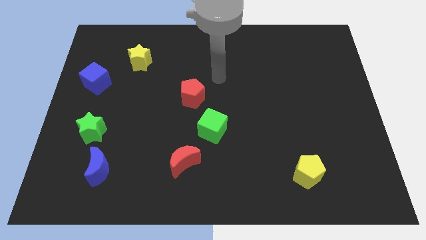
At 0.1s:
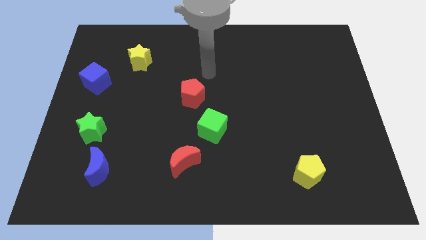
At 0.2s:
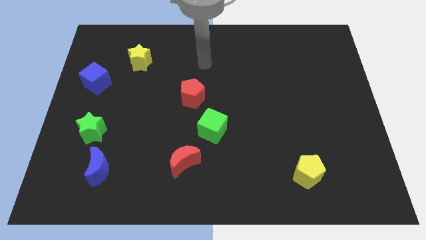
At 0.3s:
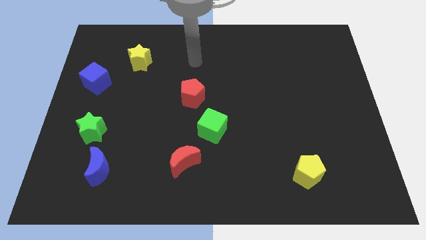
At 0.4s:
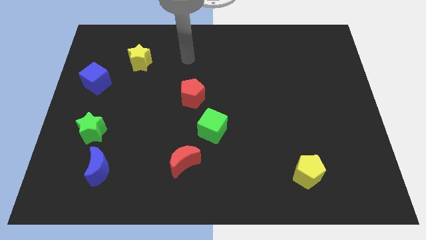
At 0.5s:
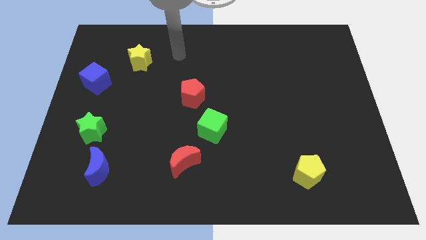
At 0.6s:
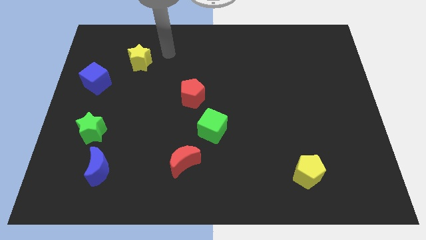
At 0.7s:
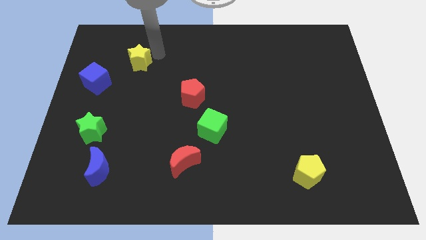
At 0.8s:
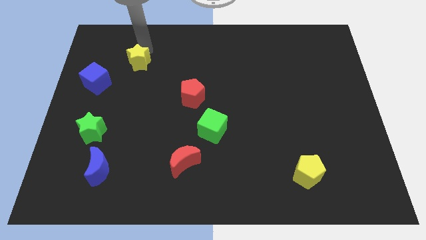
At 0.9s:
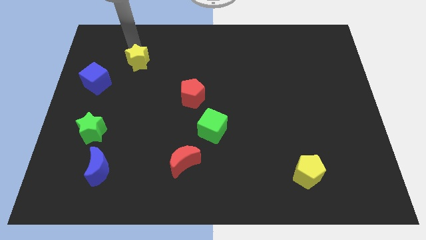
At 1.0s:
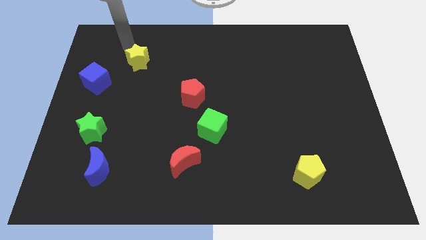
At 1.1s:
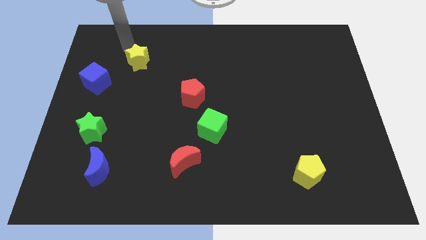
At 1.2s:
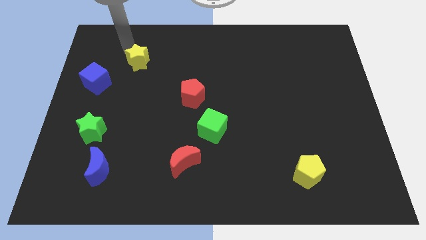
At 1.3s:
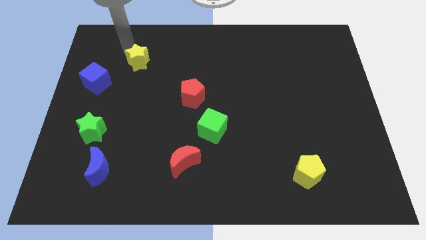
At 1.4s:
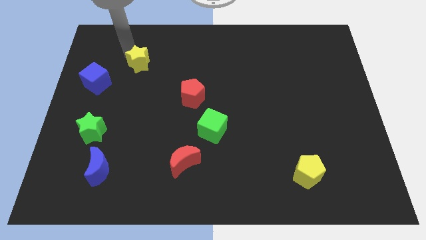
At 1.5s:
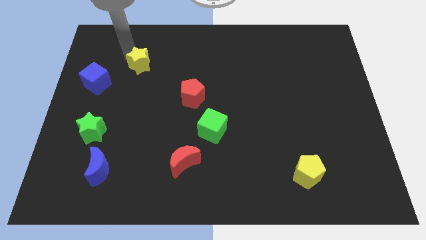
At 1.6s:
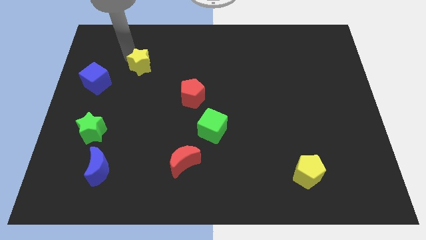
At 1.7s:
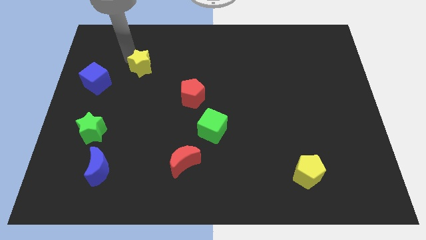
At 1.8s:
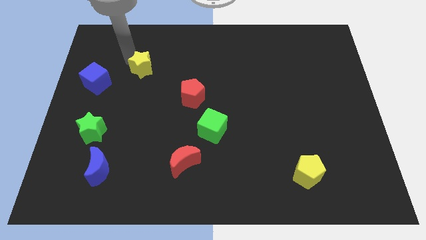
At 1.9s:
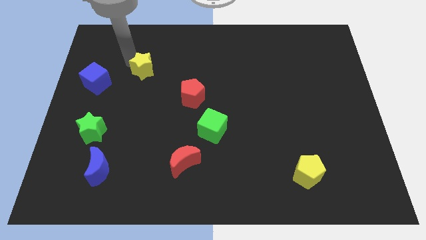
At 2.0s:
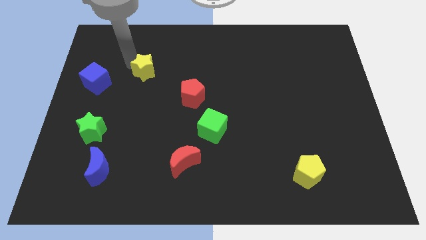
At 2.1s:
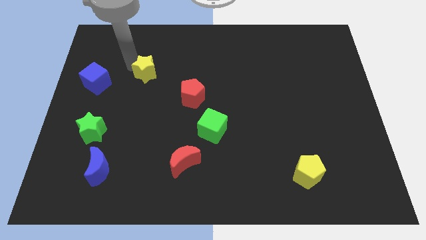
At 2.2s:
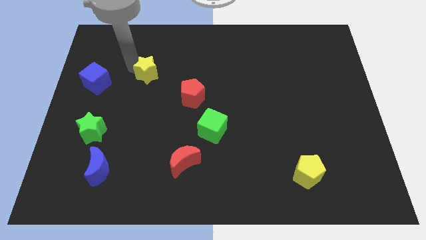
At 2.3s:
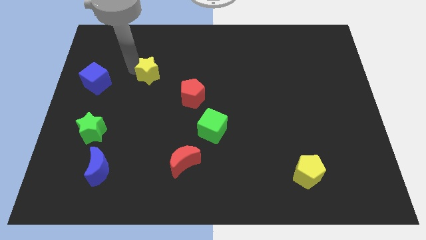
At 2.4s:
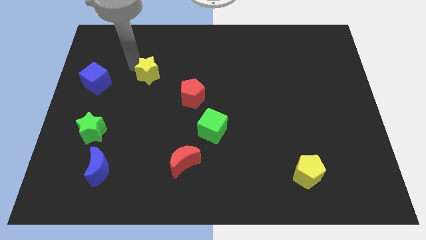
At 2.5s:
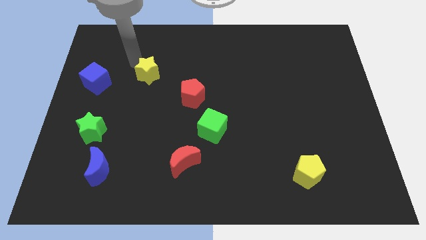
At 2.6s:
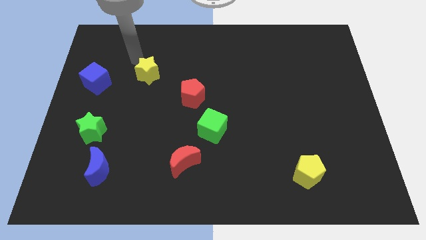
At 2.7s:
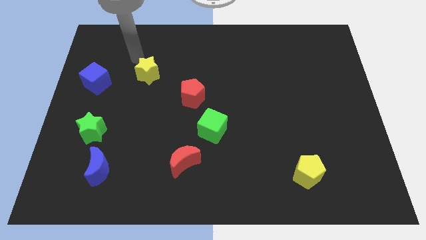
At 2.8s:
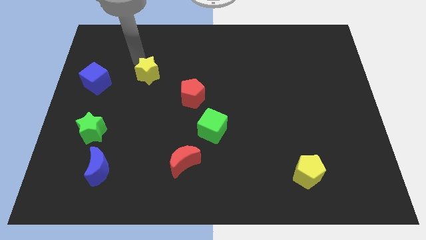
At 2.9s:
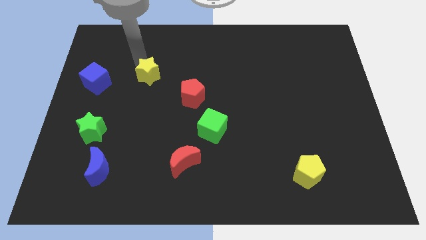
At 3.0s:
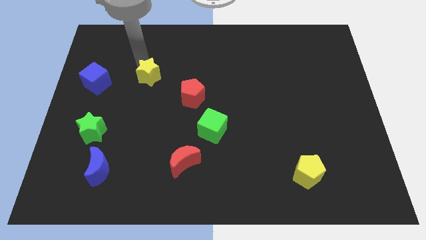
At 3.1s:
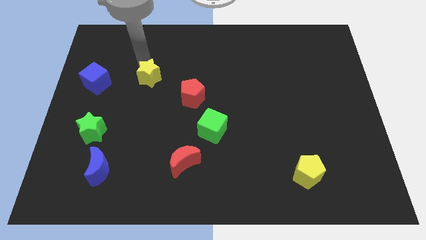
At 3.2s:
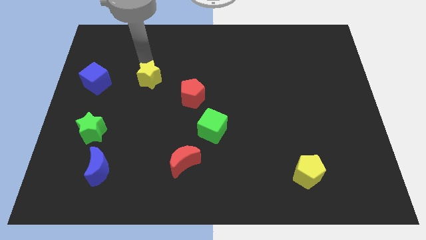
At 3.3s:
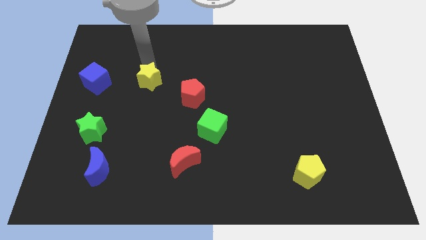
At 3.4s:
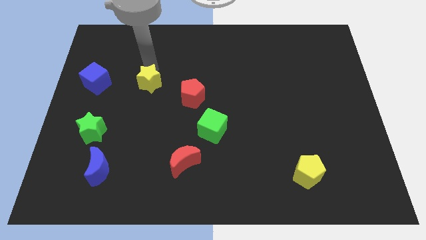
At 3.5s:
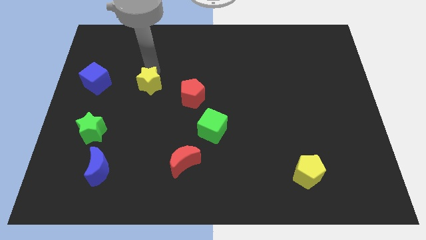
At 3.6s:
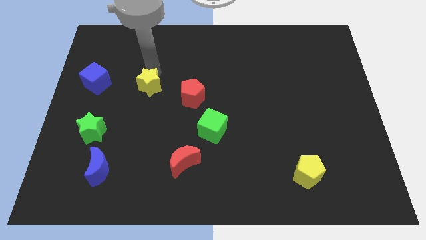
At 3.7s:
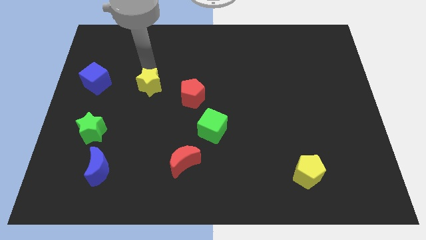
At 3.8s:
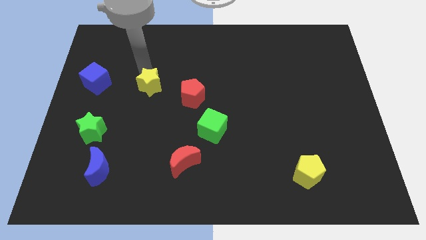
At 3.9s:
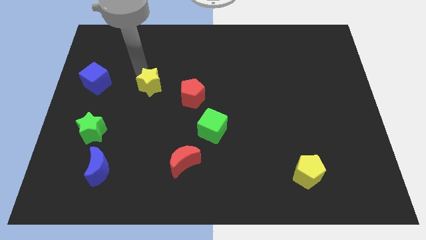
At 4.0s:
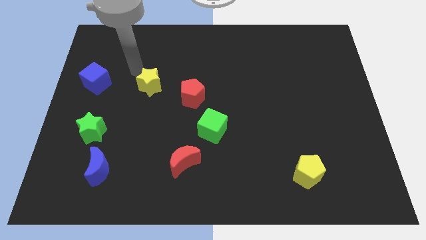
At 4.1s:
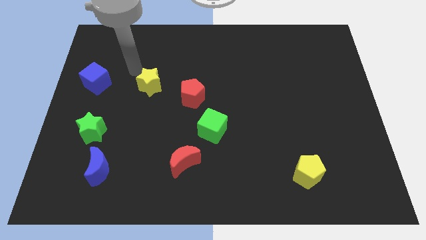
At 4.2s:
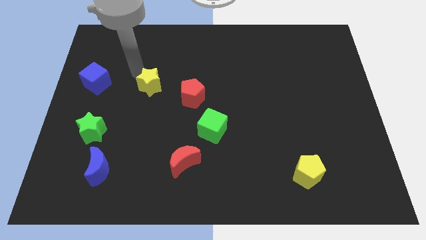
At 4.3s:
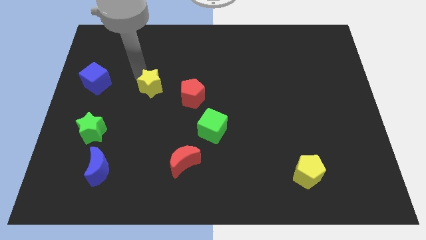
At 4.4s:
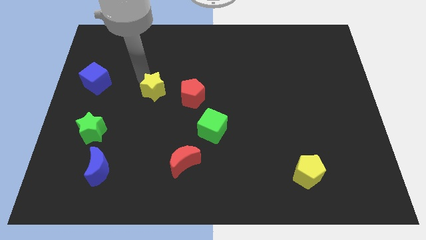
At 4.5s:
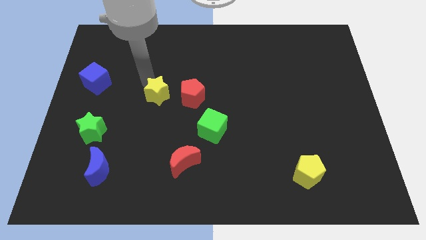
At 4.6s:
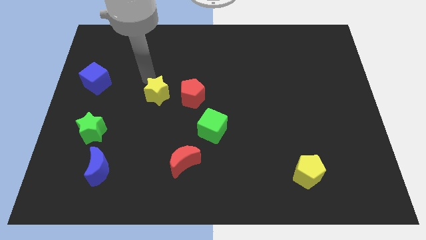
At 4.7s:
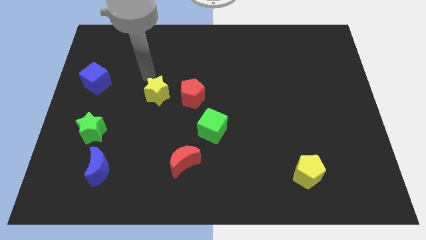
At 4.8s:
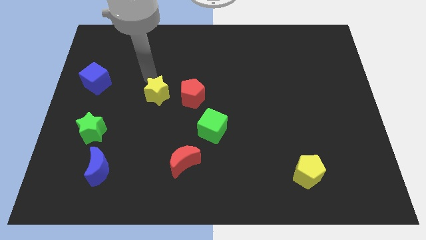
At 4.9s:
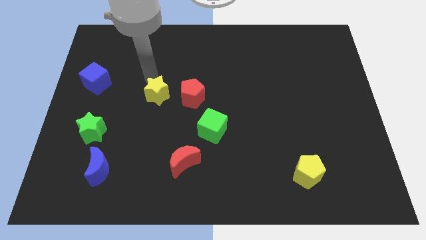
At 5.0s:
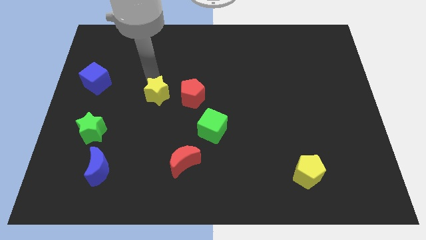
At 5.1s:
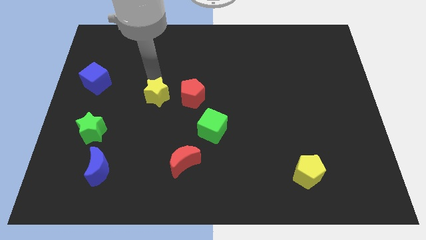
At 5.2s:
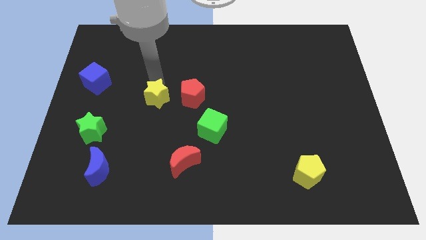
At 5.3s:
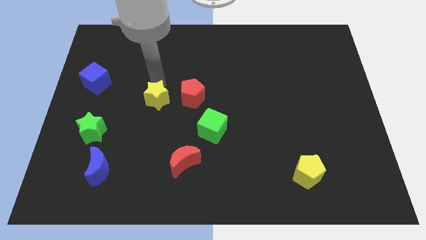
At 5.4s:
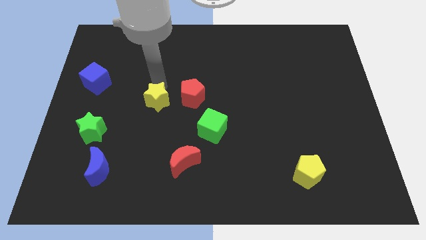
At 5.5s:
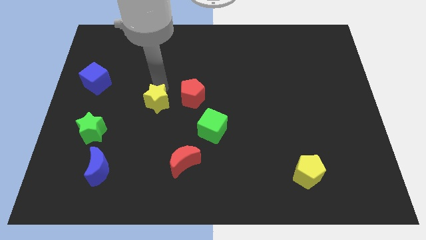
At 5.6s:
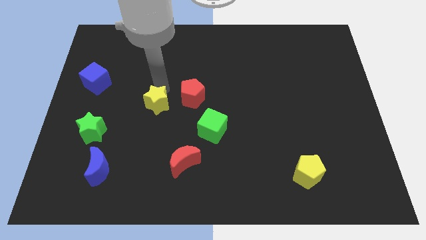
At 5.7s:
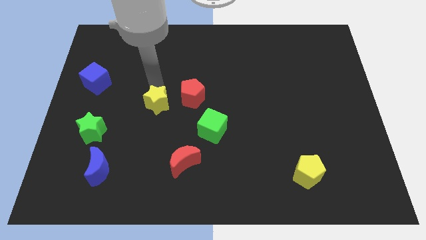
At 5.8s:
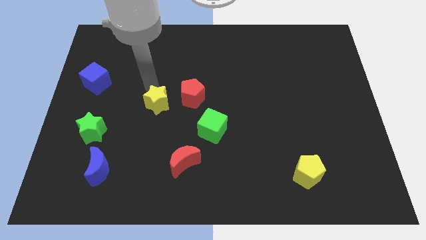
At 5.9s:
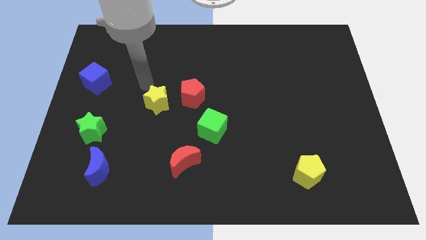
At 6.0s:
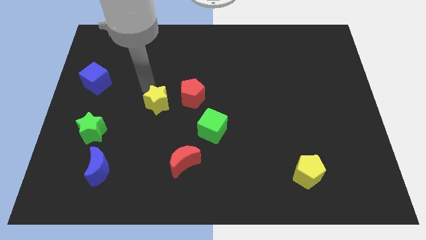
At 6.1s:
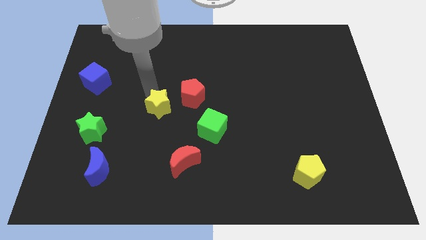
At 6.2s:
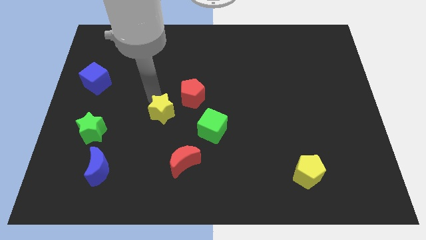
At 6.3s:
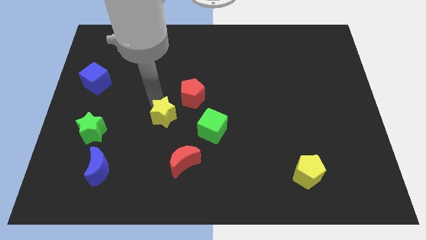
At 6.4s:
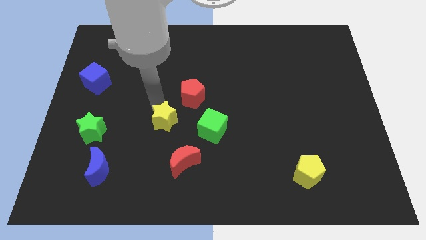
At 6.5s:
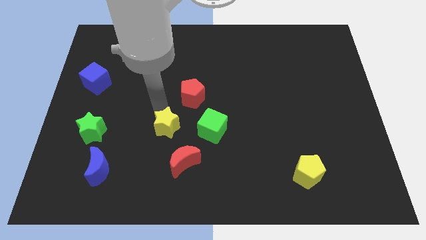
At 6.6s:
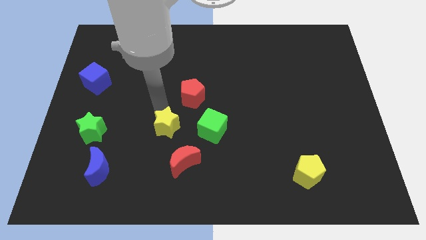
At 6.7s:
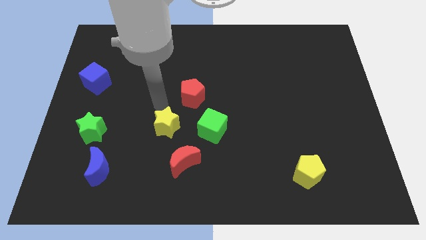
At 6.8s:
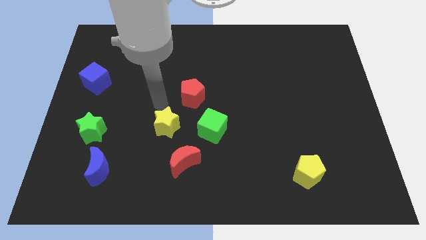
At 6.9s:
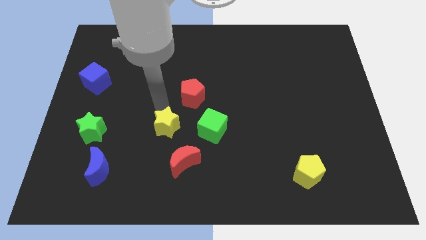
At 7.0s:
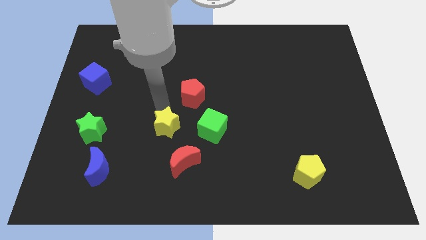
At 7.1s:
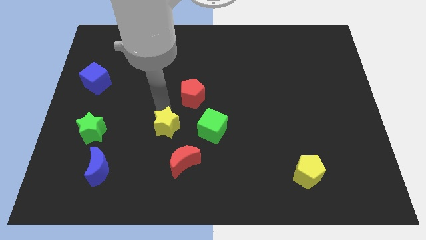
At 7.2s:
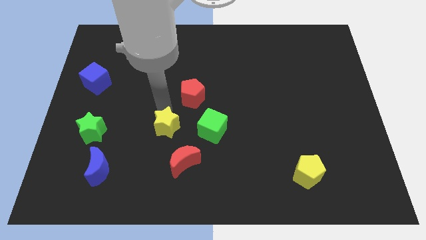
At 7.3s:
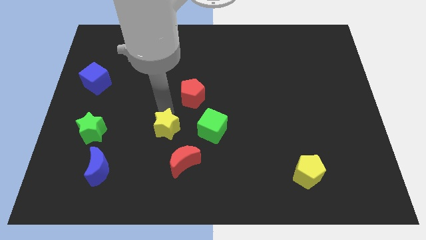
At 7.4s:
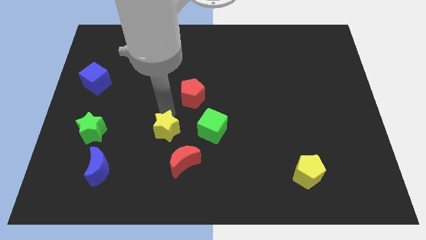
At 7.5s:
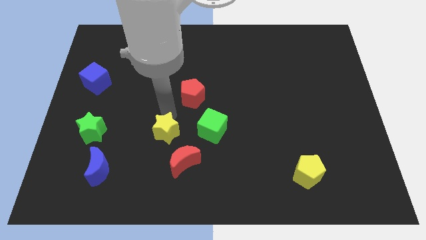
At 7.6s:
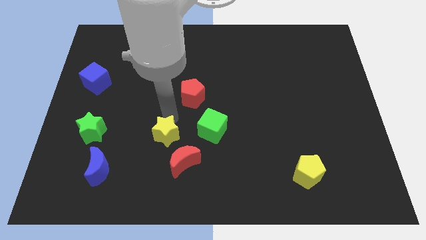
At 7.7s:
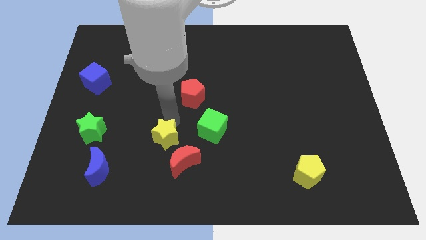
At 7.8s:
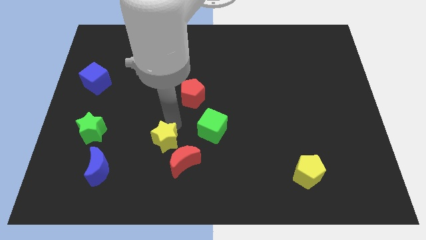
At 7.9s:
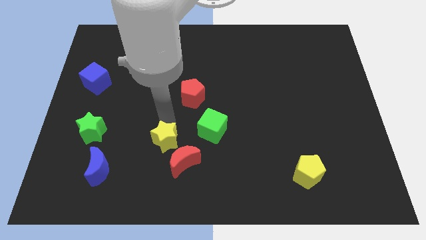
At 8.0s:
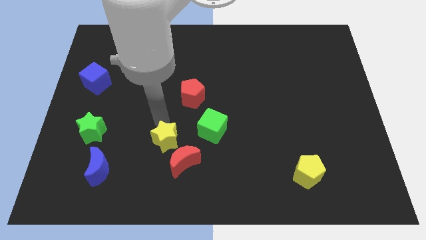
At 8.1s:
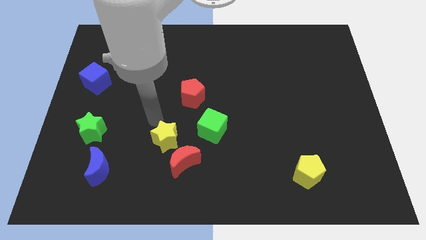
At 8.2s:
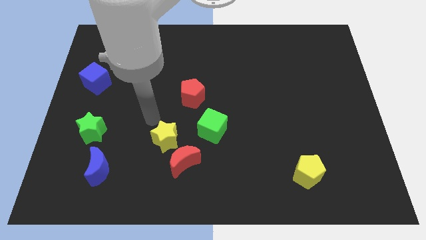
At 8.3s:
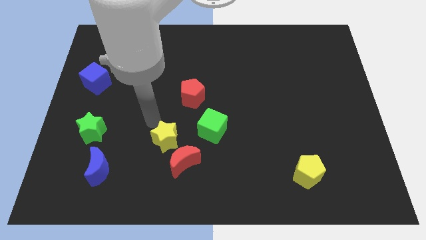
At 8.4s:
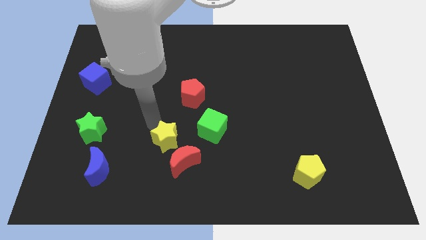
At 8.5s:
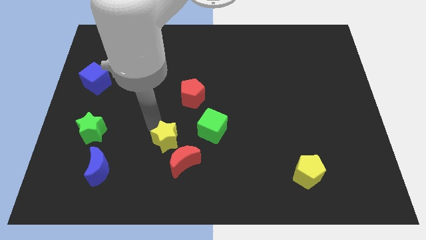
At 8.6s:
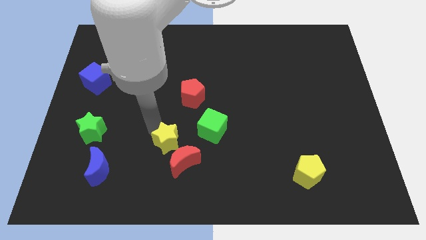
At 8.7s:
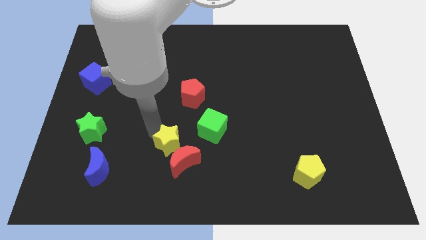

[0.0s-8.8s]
slide the yellow star close to the red moon
